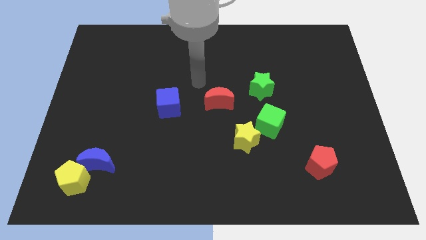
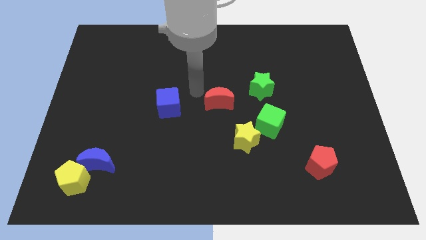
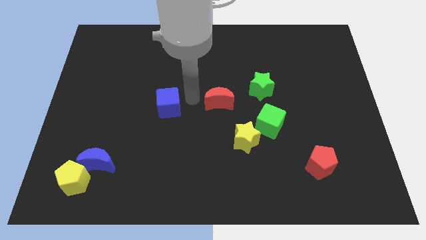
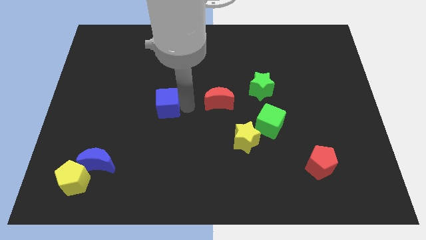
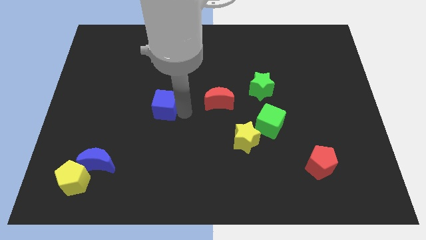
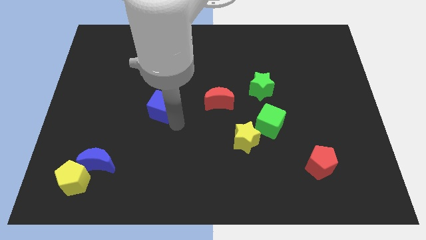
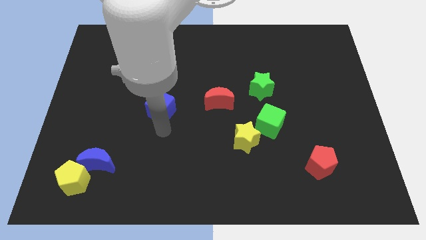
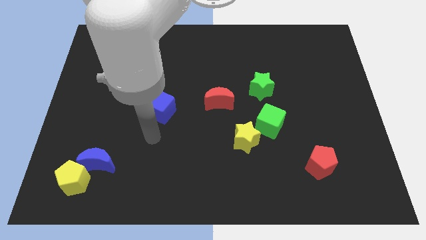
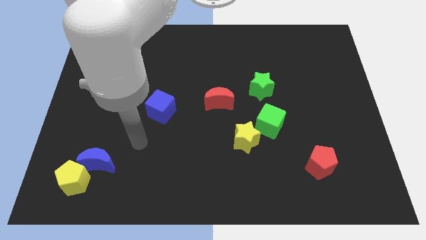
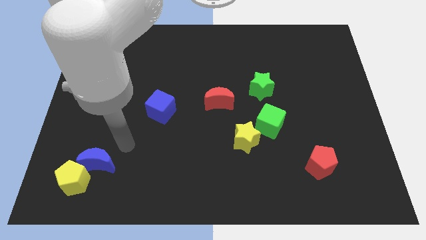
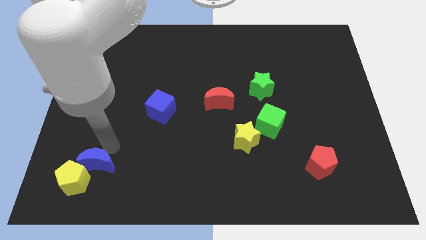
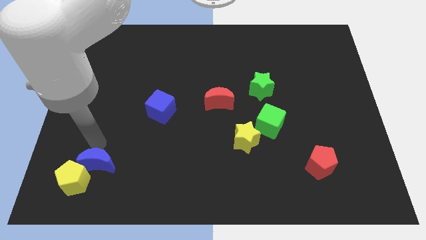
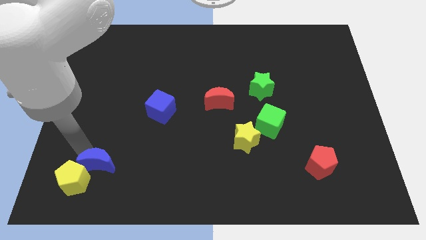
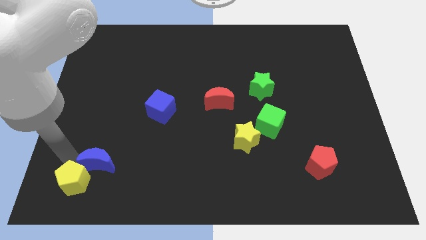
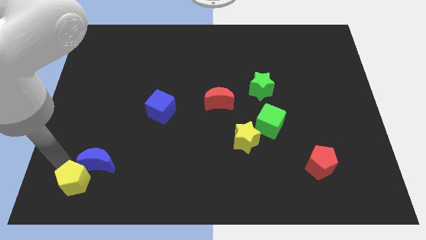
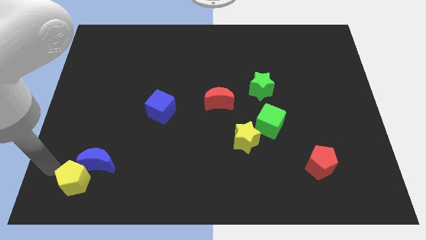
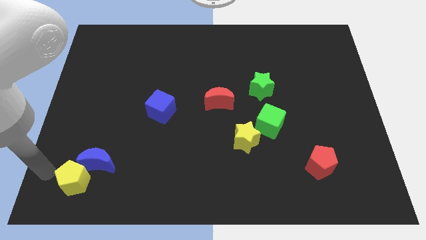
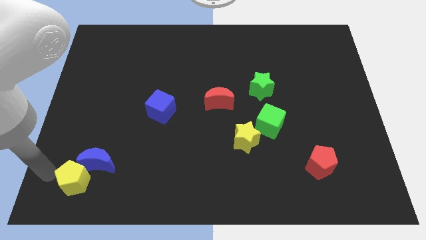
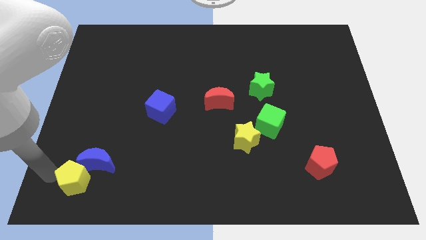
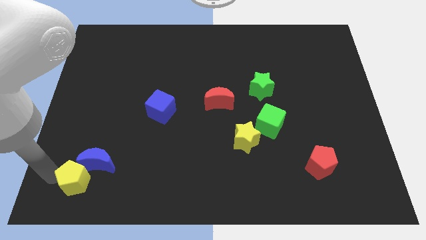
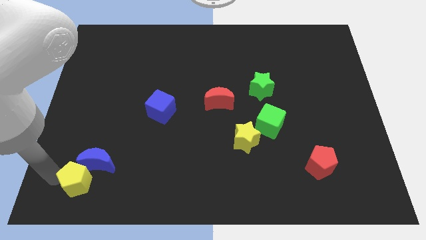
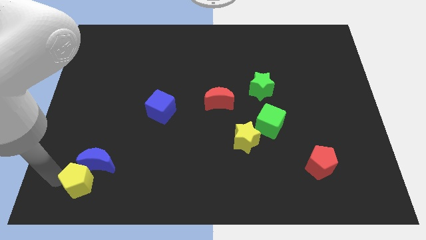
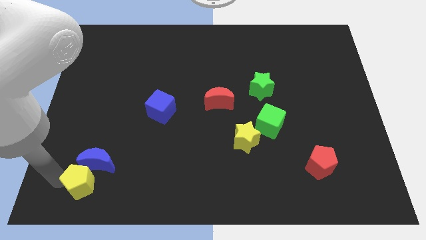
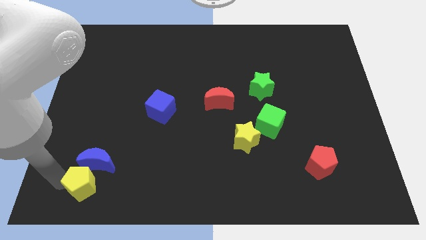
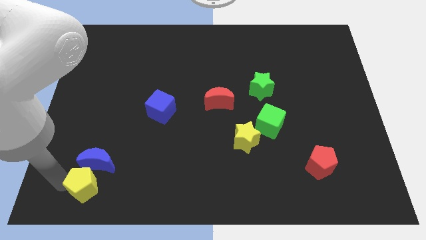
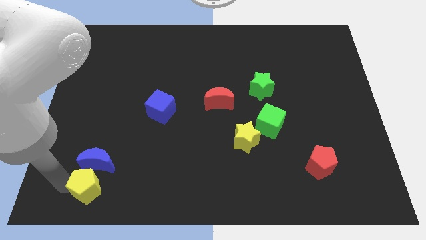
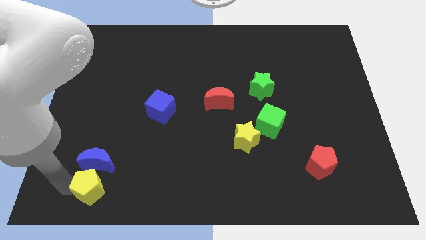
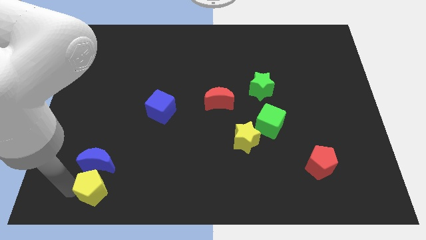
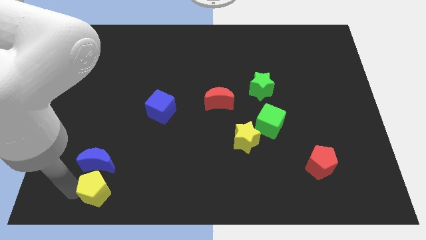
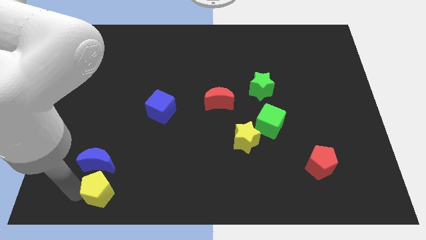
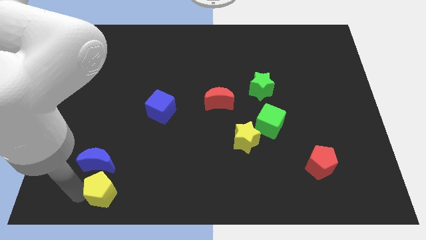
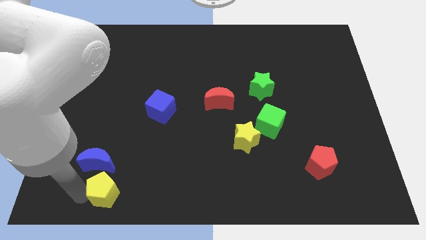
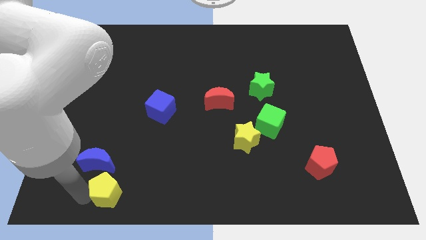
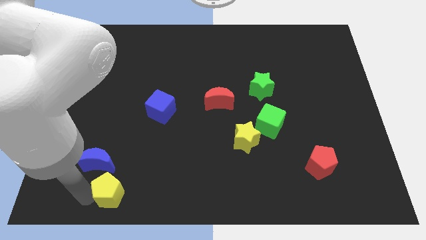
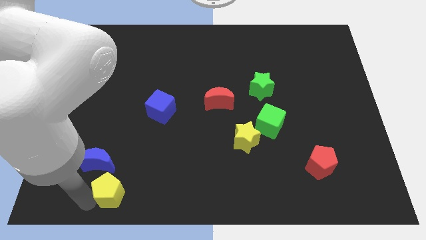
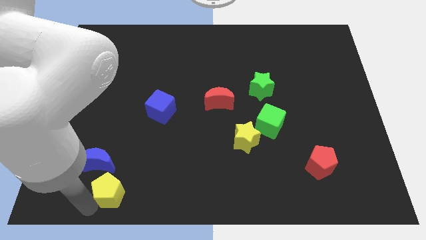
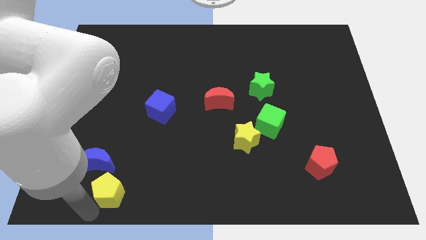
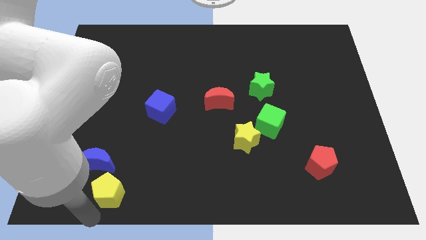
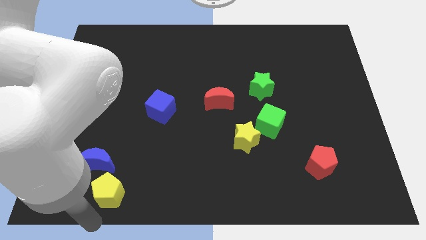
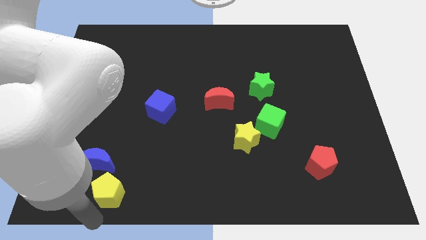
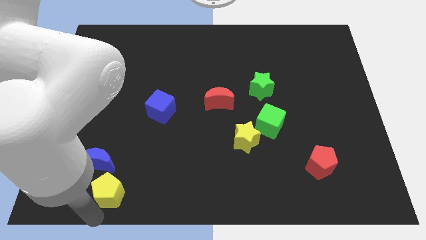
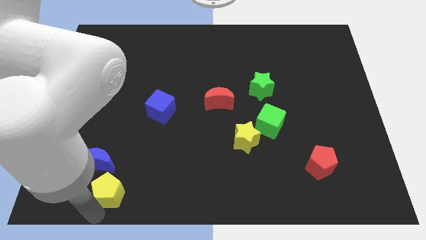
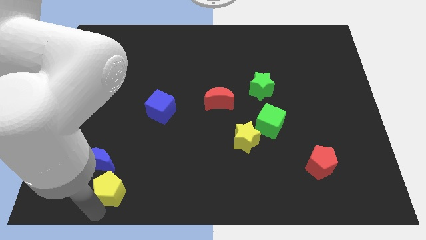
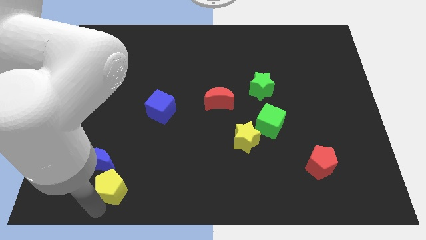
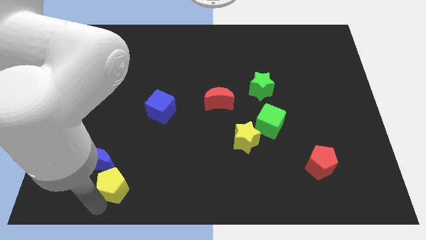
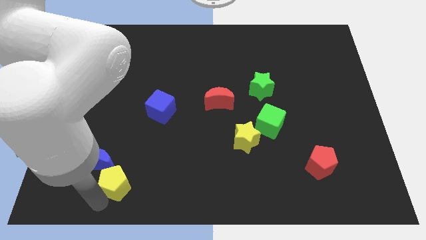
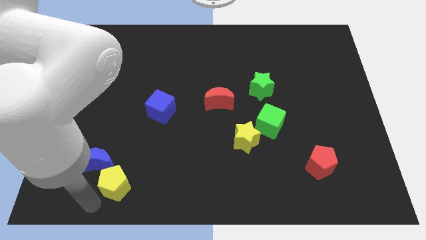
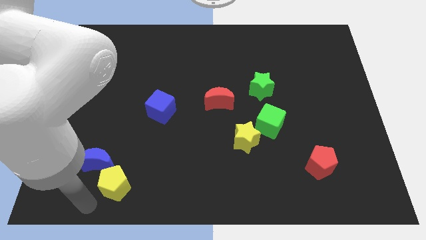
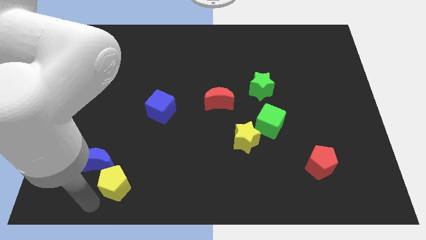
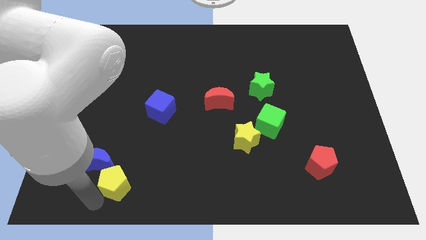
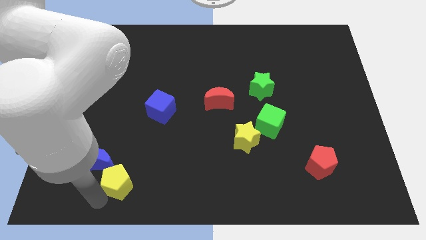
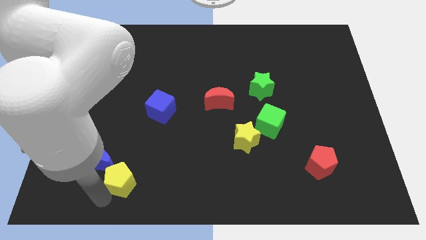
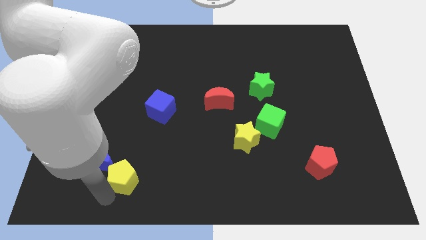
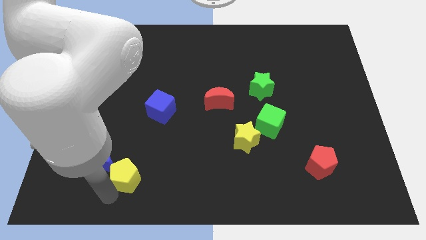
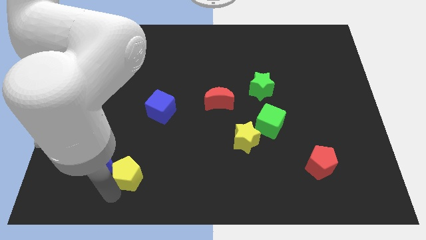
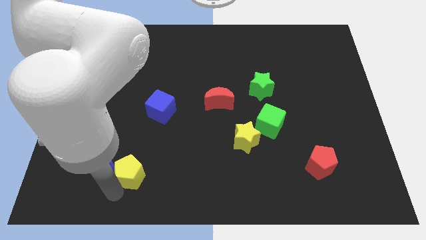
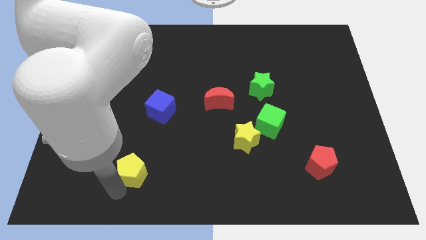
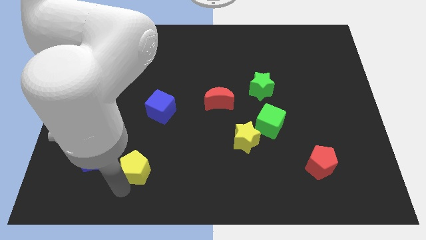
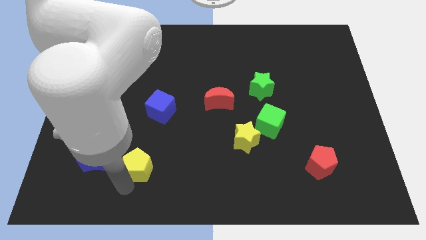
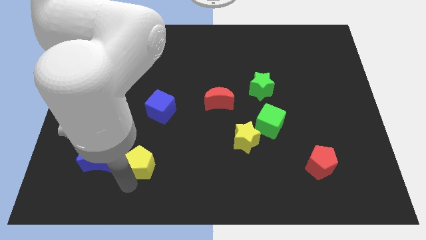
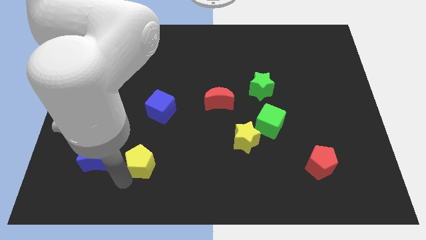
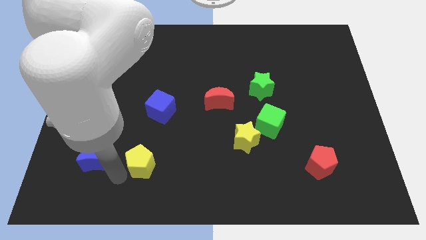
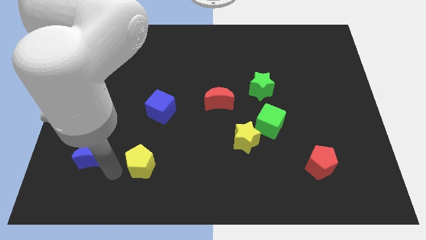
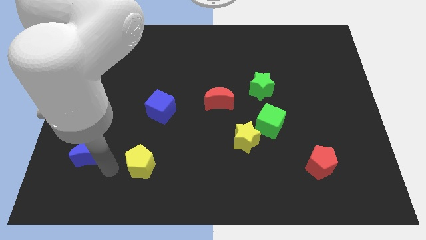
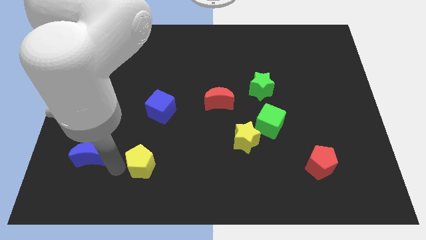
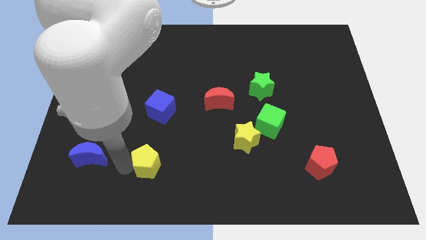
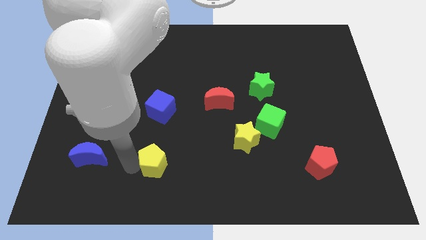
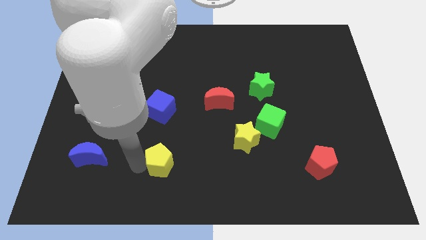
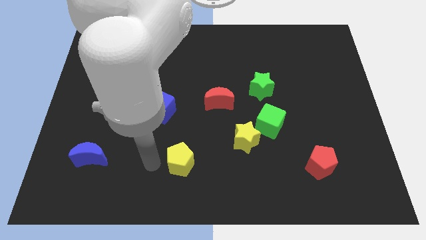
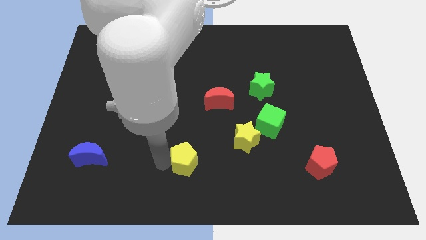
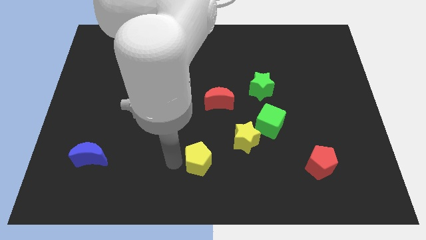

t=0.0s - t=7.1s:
push the yellow pentagon to the bottom left side of the yellow star

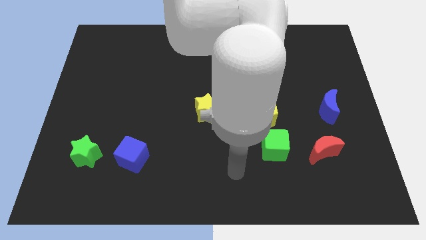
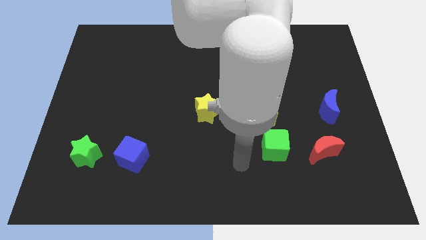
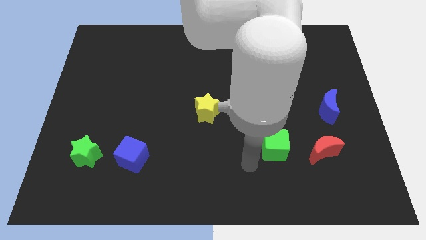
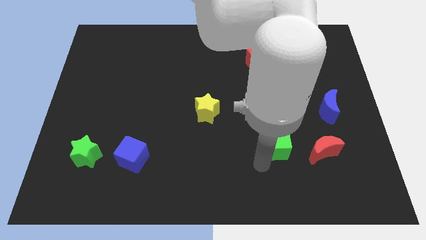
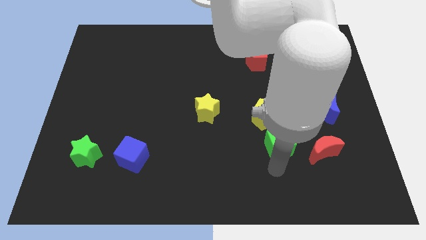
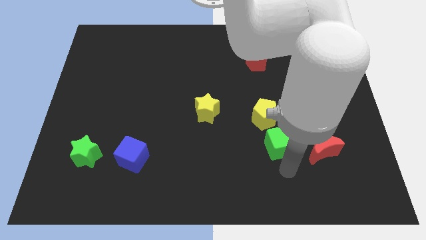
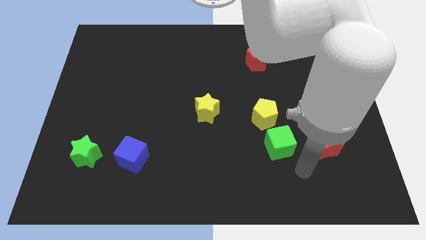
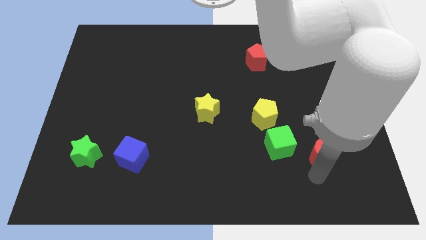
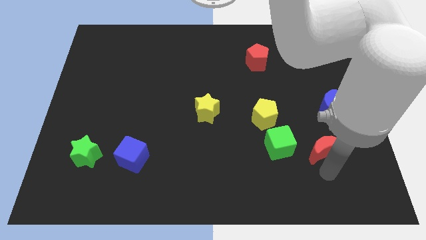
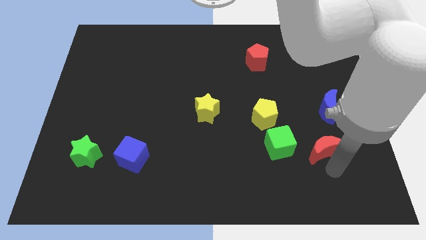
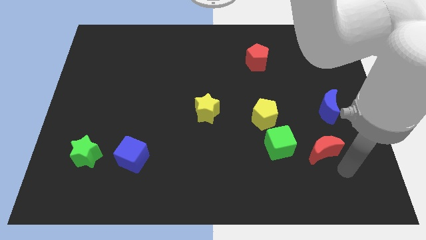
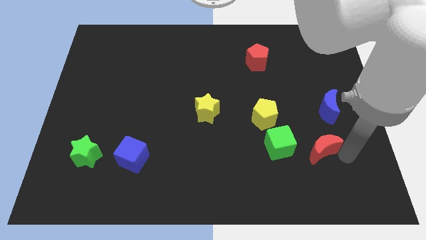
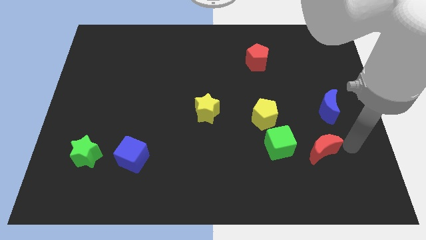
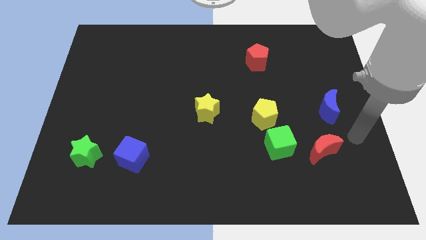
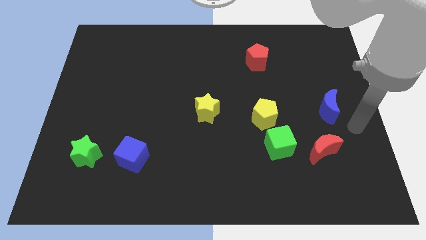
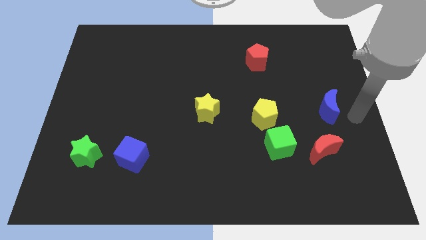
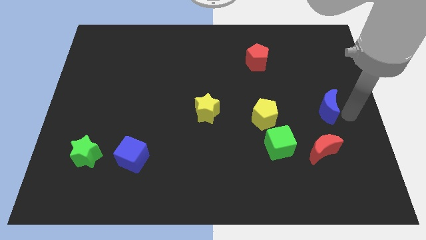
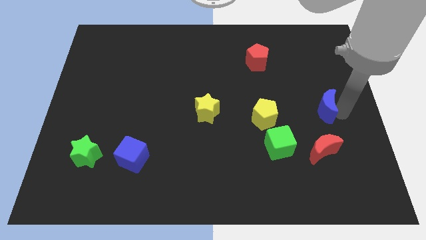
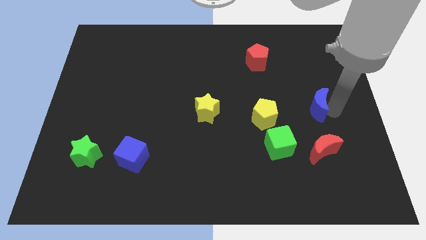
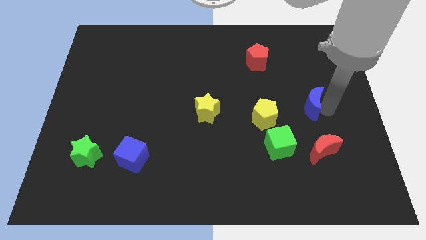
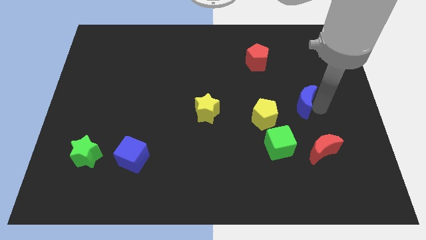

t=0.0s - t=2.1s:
push the blue moon diagonally up and to the right of the yellow pentagon
